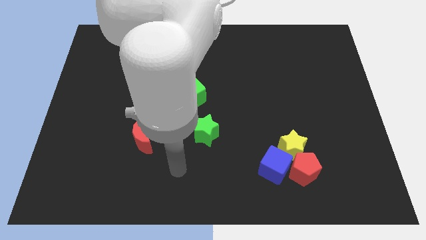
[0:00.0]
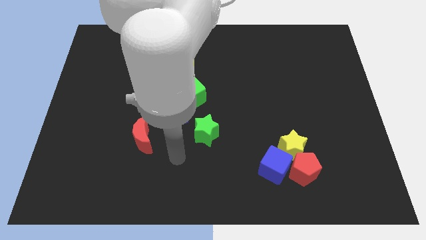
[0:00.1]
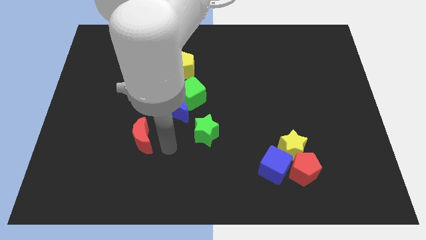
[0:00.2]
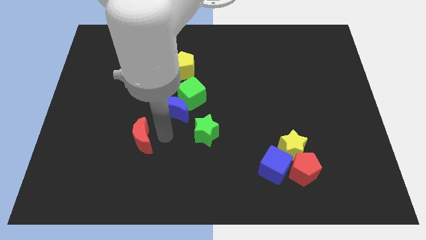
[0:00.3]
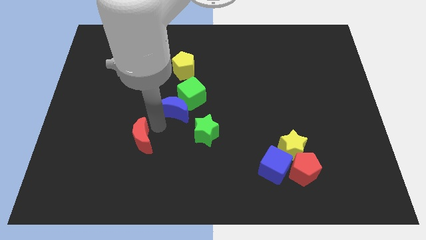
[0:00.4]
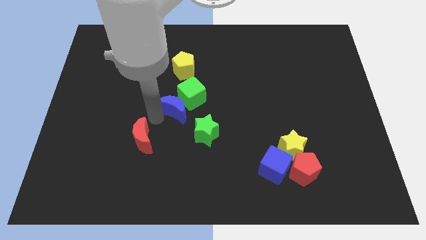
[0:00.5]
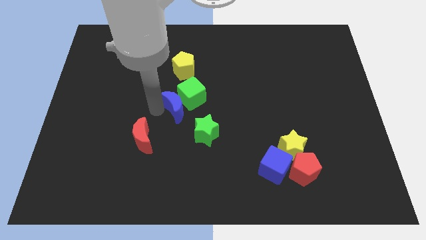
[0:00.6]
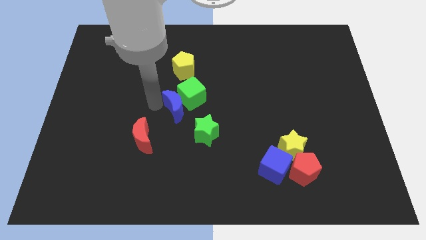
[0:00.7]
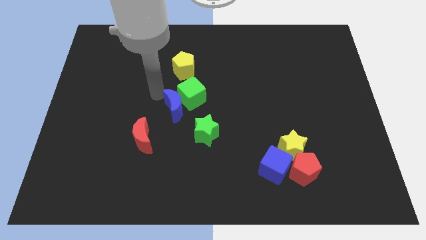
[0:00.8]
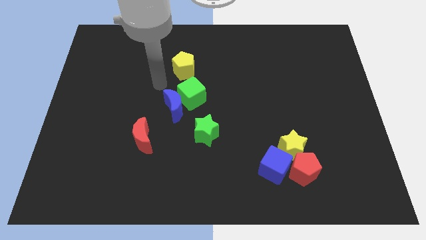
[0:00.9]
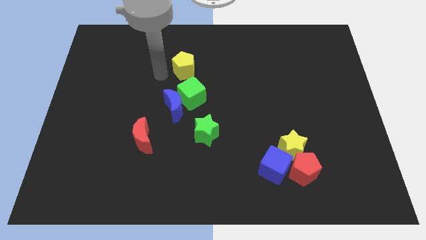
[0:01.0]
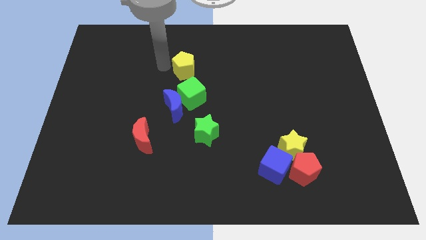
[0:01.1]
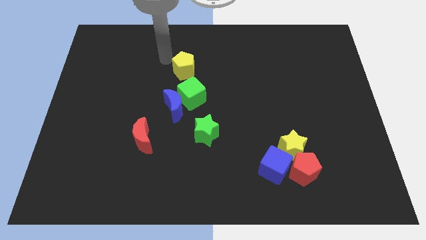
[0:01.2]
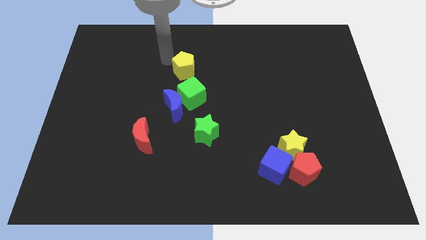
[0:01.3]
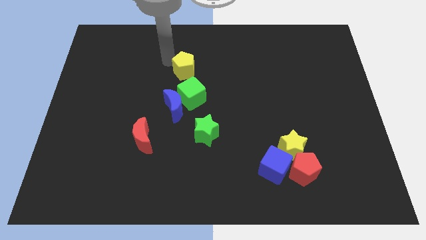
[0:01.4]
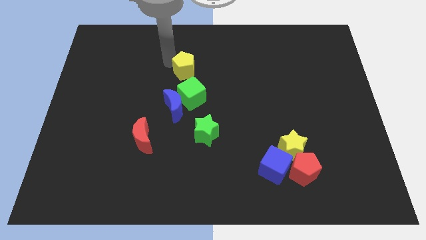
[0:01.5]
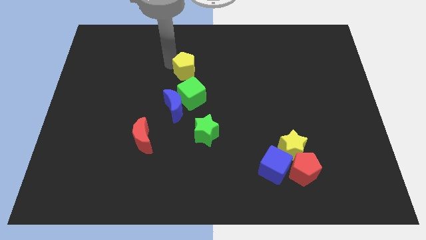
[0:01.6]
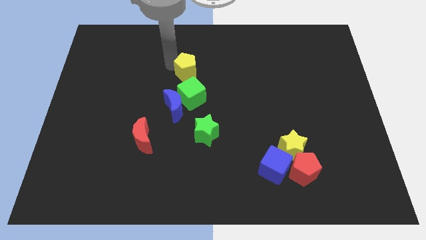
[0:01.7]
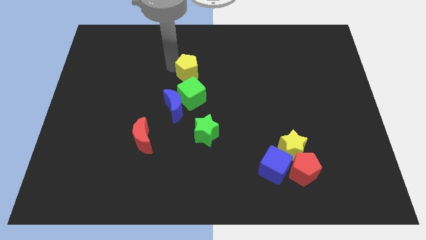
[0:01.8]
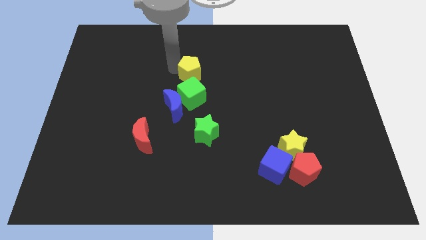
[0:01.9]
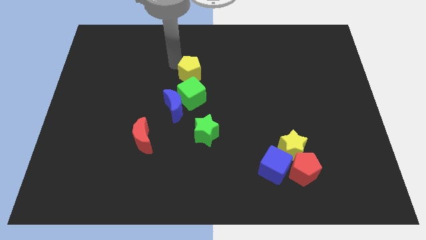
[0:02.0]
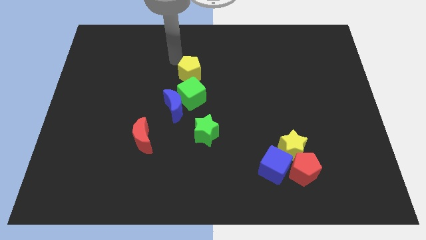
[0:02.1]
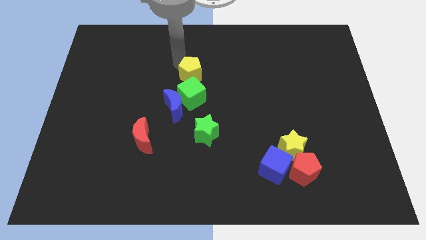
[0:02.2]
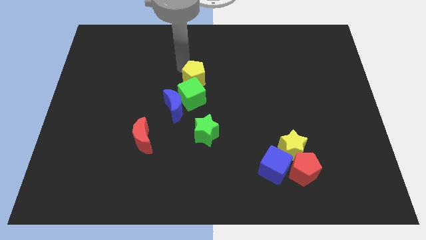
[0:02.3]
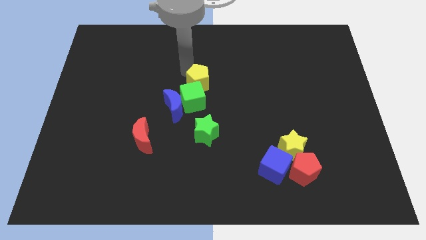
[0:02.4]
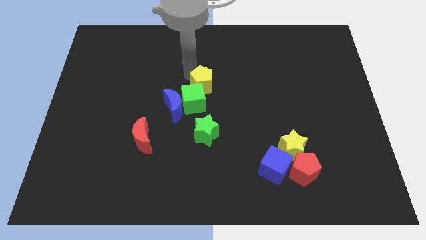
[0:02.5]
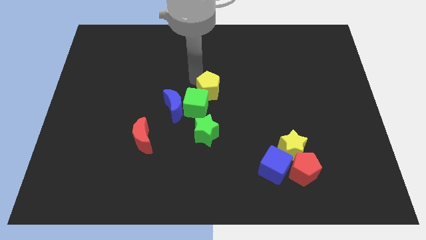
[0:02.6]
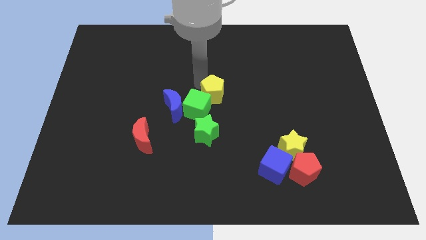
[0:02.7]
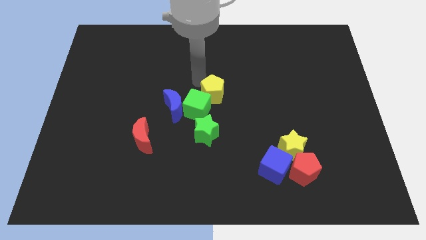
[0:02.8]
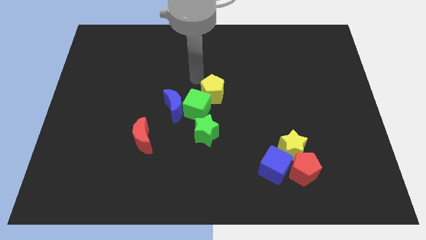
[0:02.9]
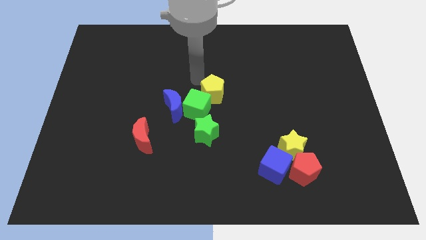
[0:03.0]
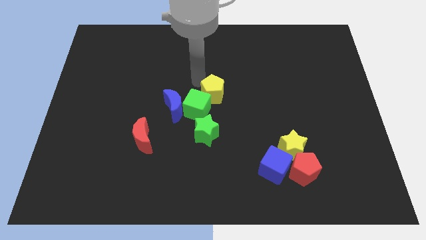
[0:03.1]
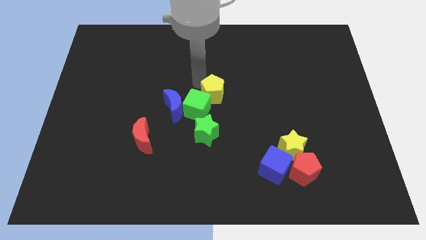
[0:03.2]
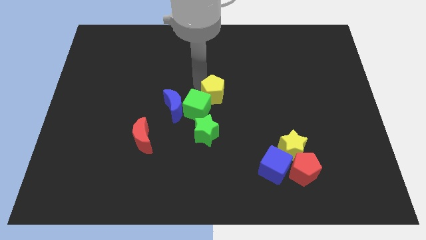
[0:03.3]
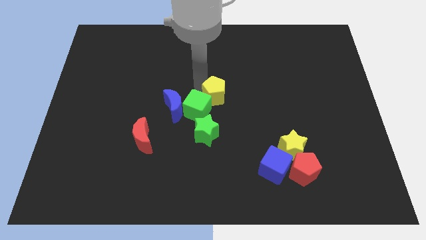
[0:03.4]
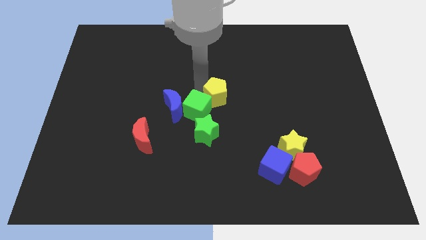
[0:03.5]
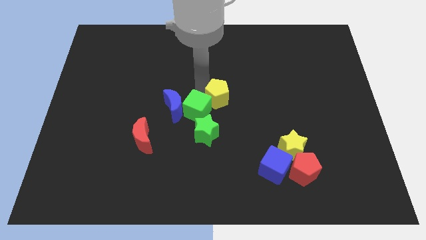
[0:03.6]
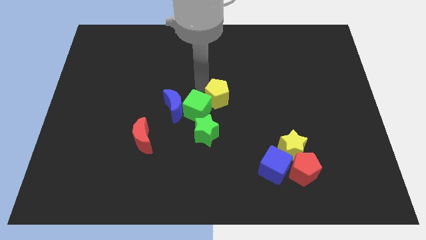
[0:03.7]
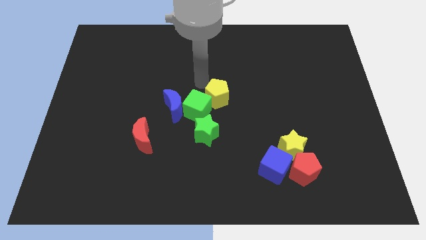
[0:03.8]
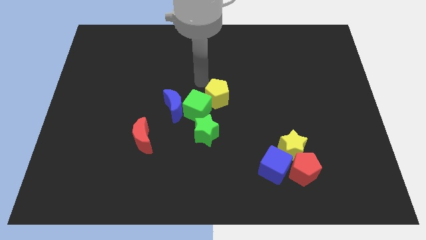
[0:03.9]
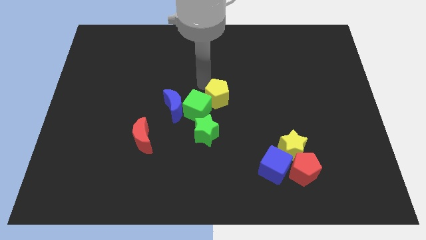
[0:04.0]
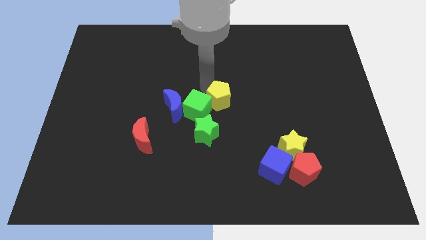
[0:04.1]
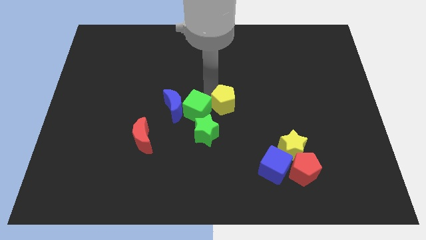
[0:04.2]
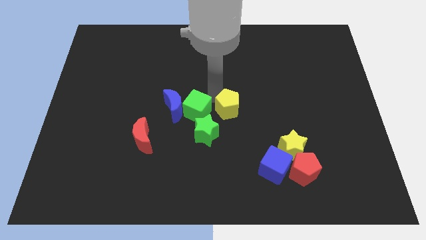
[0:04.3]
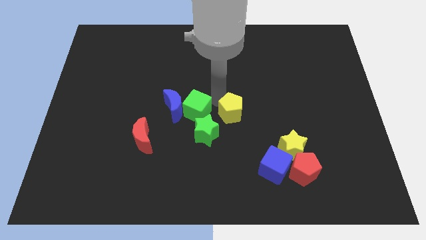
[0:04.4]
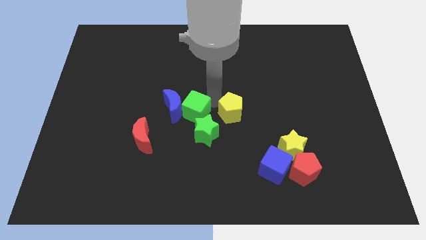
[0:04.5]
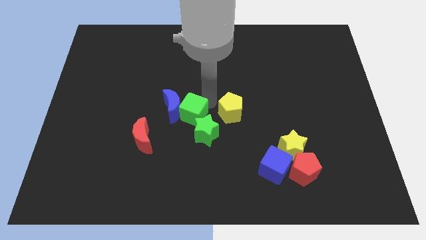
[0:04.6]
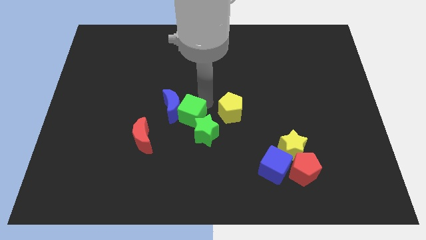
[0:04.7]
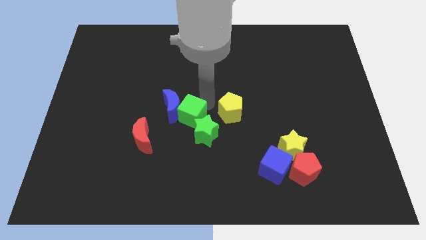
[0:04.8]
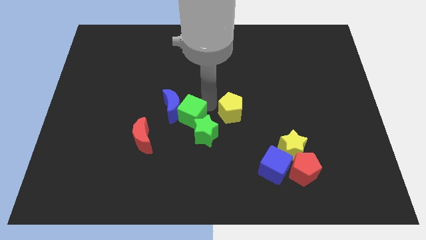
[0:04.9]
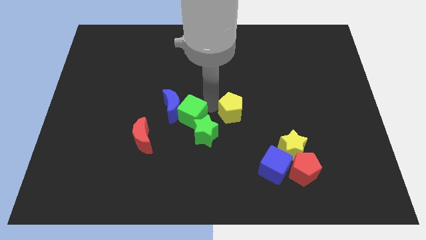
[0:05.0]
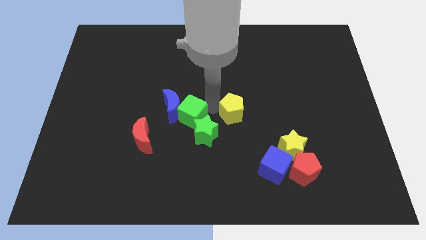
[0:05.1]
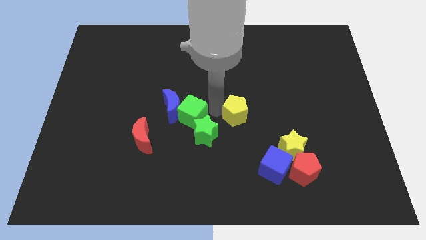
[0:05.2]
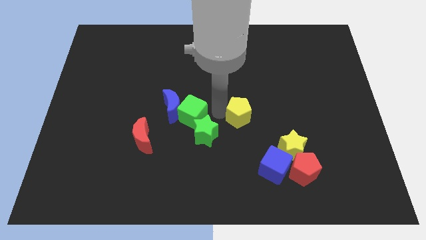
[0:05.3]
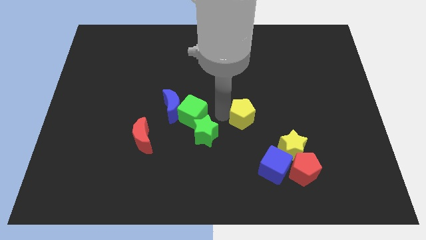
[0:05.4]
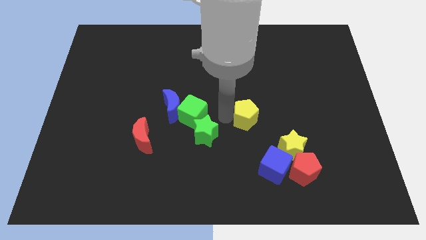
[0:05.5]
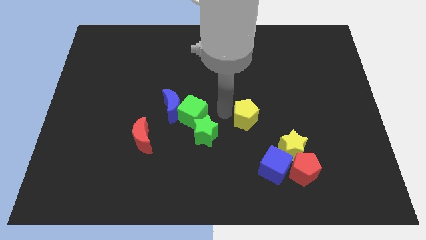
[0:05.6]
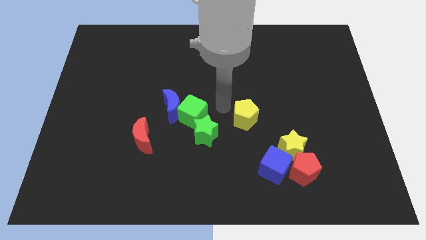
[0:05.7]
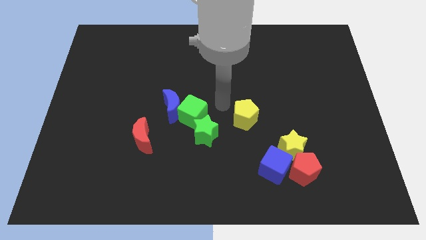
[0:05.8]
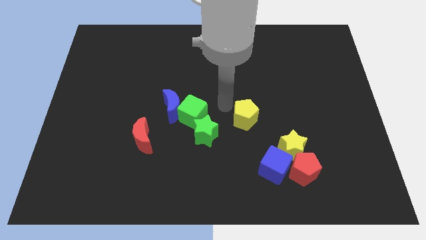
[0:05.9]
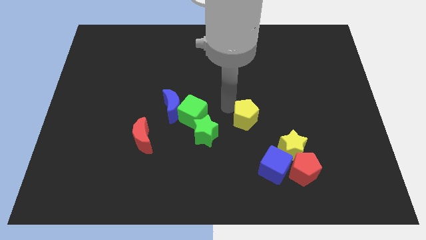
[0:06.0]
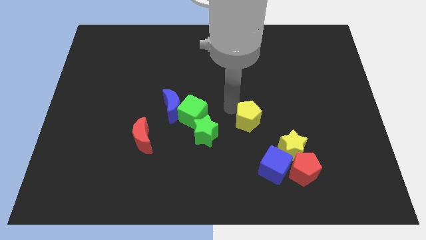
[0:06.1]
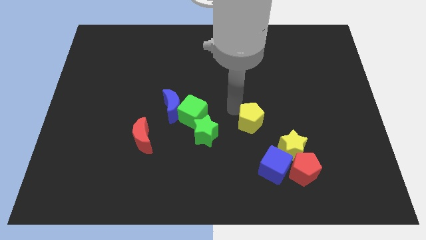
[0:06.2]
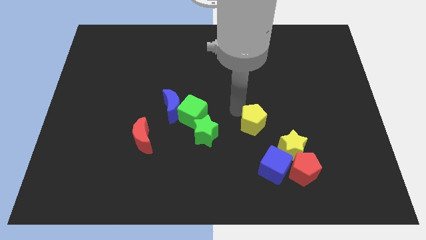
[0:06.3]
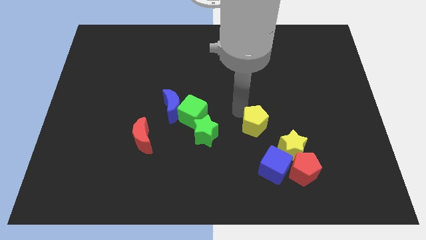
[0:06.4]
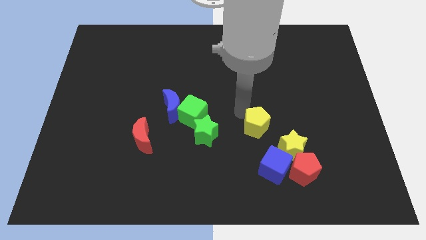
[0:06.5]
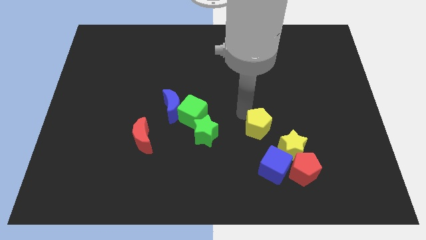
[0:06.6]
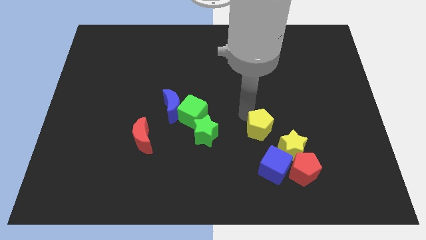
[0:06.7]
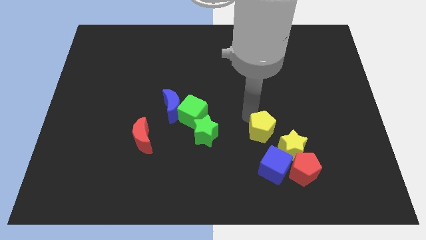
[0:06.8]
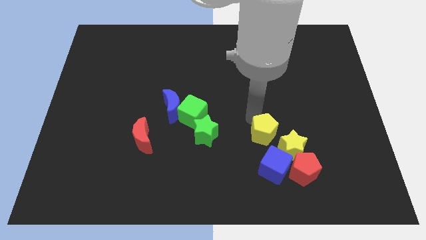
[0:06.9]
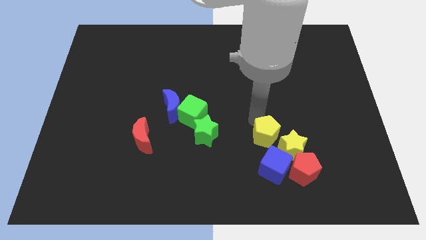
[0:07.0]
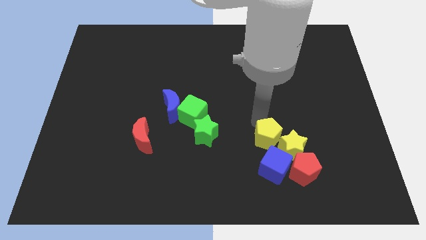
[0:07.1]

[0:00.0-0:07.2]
slide the yellow pentagon close to the yellow star
